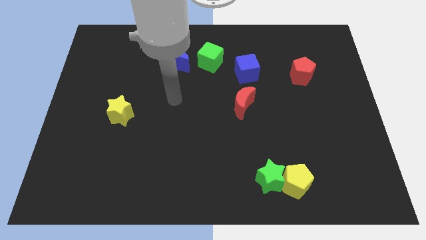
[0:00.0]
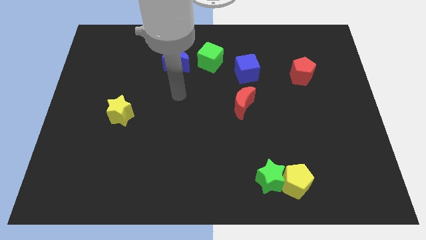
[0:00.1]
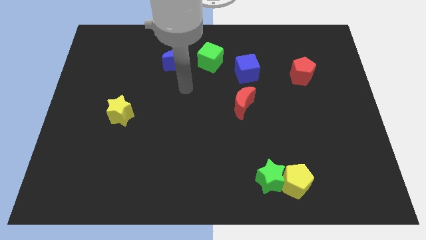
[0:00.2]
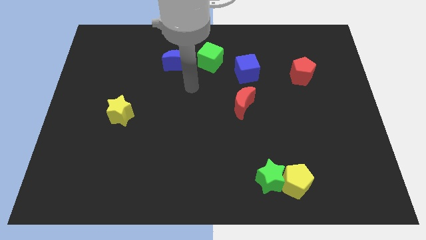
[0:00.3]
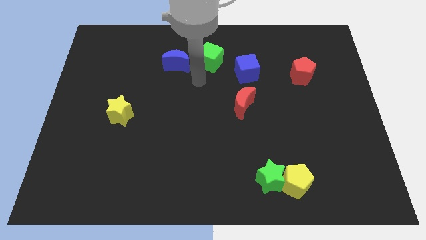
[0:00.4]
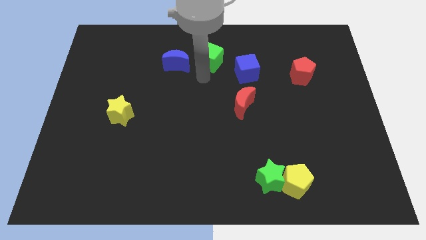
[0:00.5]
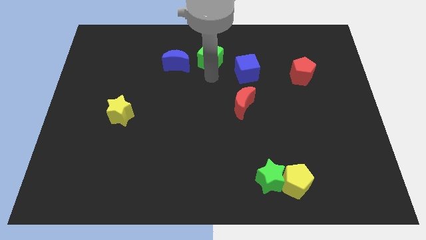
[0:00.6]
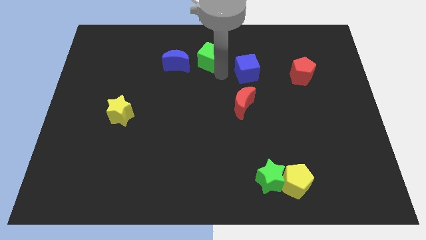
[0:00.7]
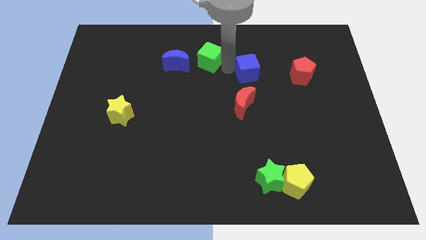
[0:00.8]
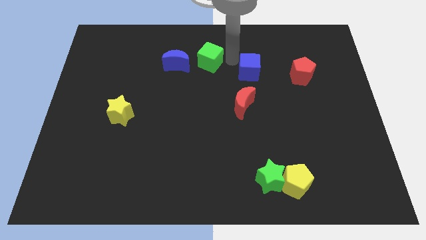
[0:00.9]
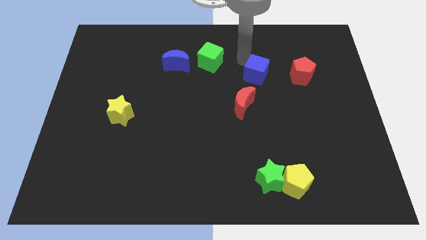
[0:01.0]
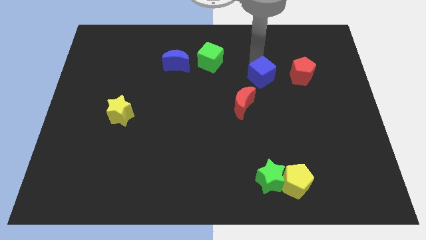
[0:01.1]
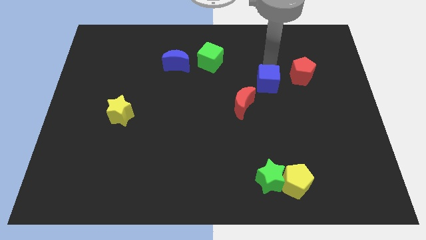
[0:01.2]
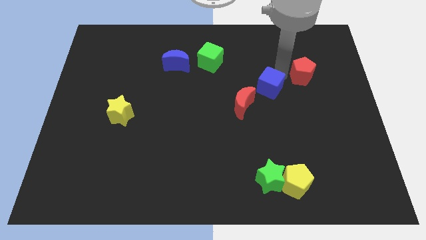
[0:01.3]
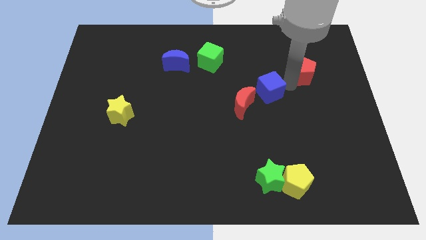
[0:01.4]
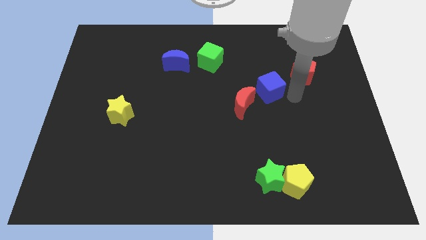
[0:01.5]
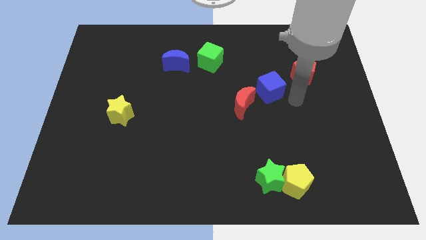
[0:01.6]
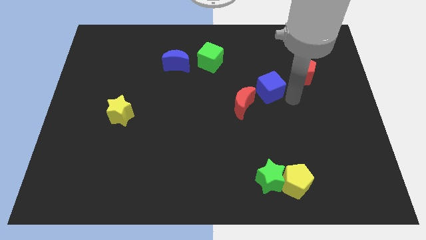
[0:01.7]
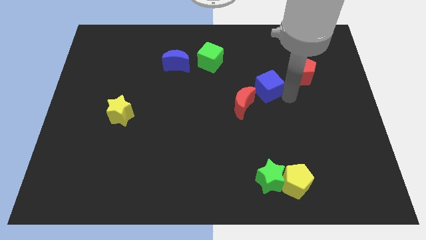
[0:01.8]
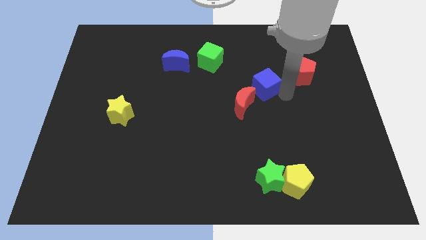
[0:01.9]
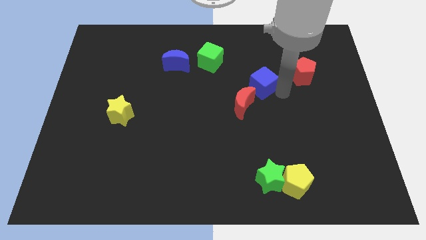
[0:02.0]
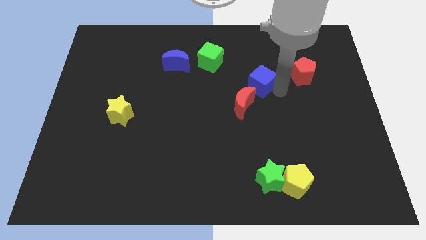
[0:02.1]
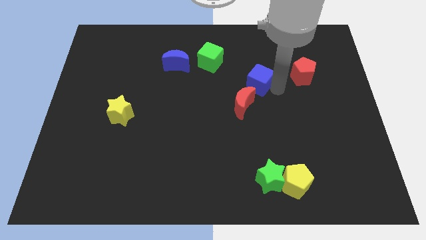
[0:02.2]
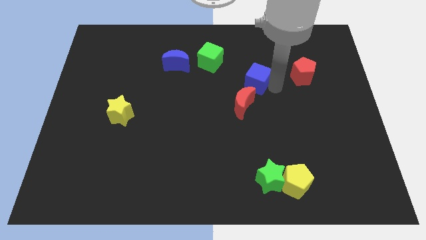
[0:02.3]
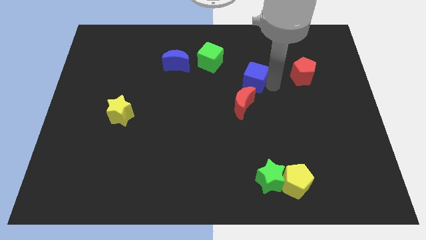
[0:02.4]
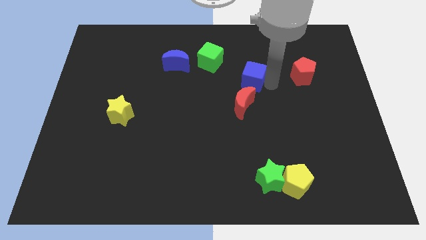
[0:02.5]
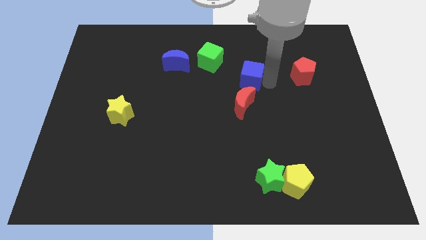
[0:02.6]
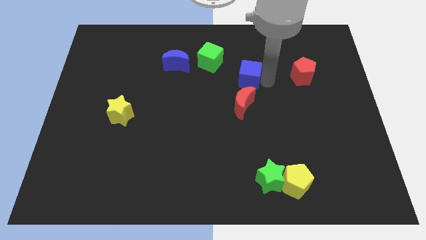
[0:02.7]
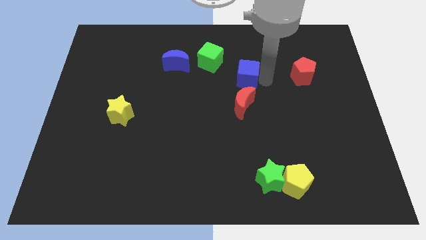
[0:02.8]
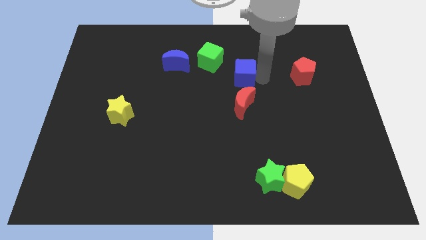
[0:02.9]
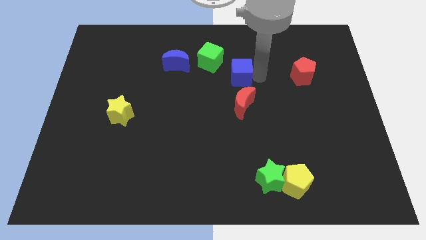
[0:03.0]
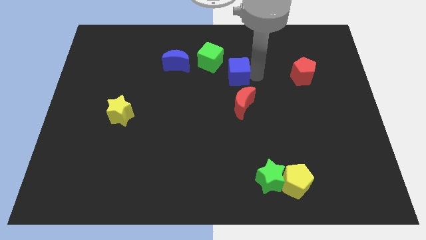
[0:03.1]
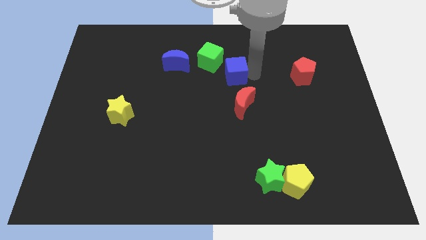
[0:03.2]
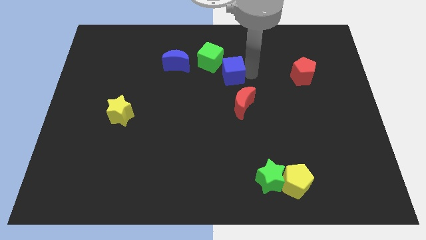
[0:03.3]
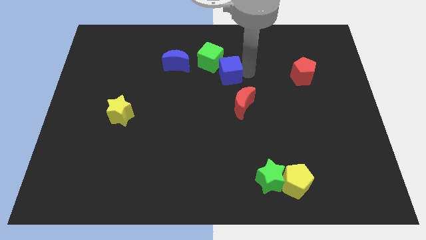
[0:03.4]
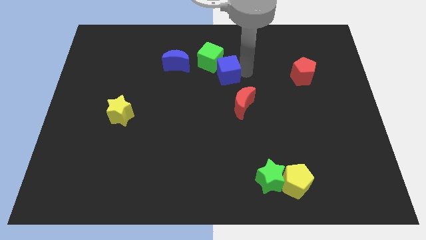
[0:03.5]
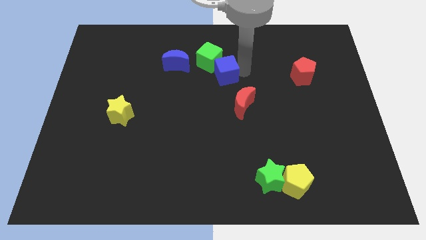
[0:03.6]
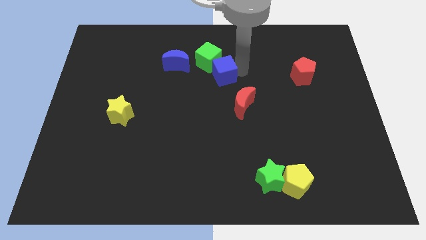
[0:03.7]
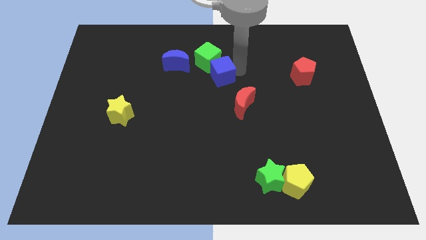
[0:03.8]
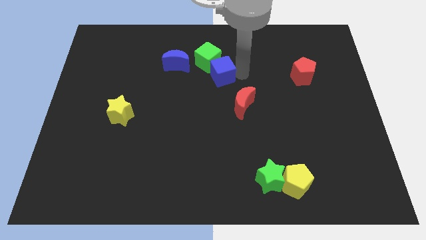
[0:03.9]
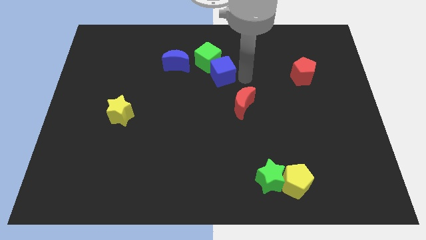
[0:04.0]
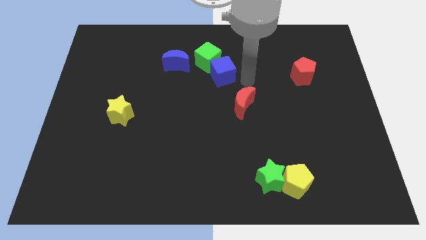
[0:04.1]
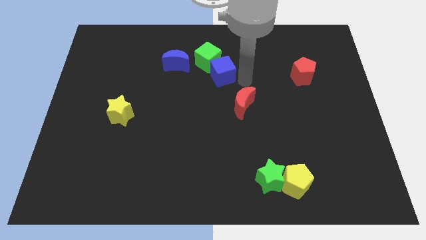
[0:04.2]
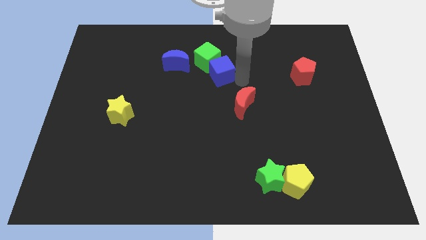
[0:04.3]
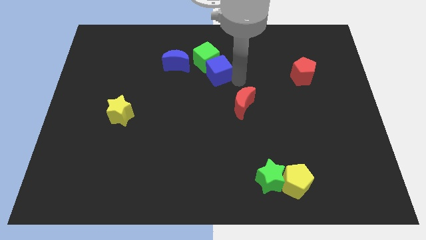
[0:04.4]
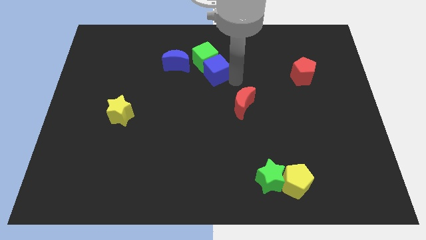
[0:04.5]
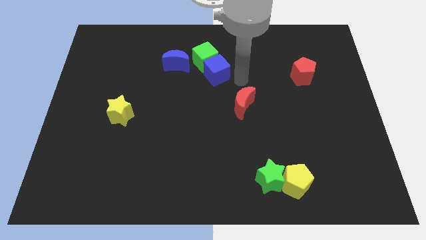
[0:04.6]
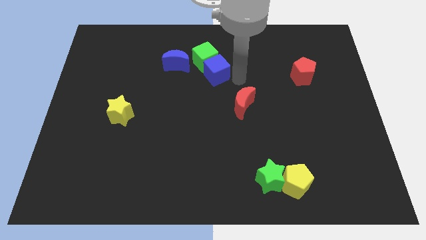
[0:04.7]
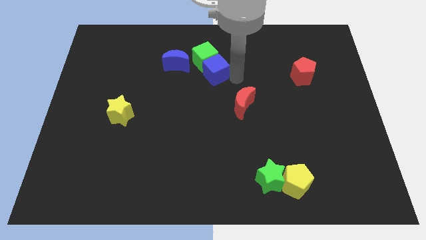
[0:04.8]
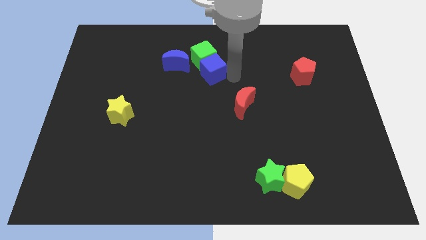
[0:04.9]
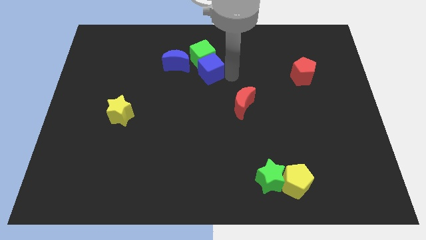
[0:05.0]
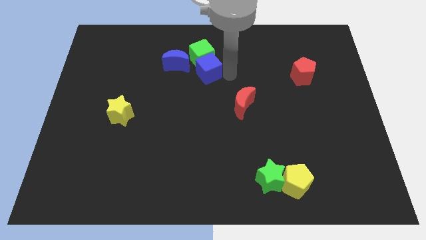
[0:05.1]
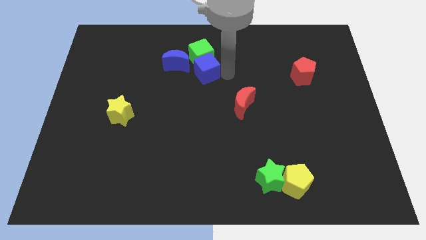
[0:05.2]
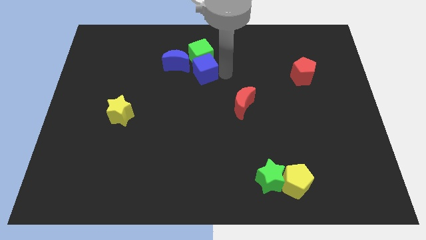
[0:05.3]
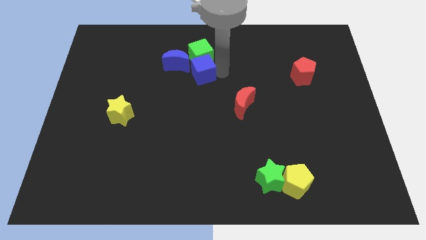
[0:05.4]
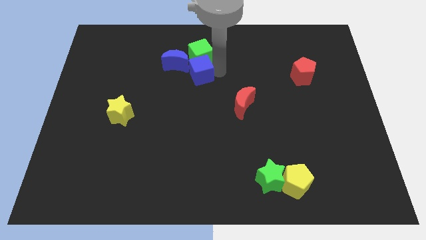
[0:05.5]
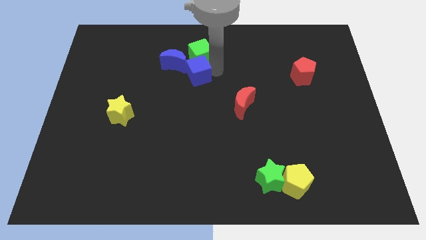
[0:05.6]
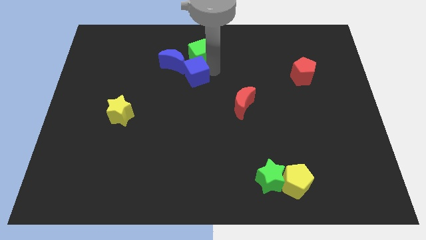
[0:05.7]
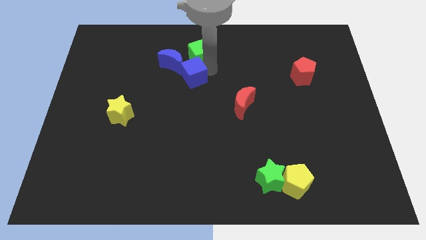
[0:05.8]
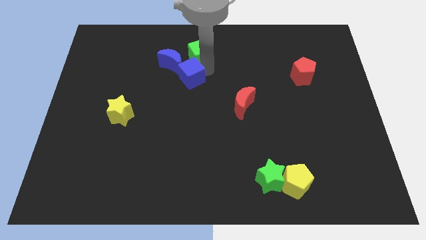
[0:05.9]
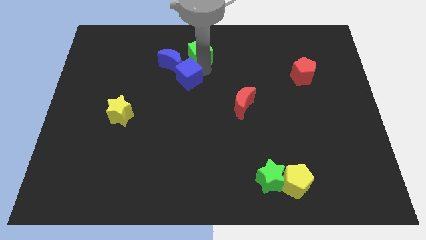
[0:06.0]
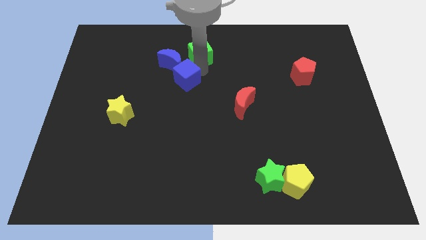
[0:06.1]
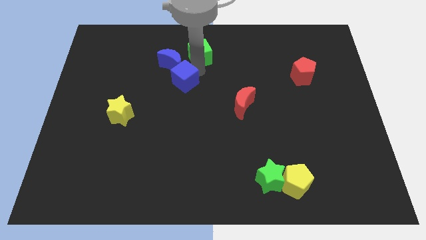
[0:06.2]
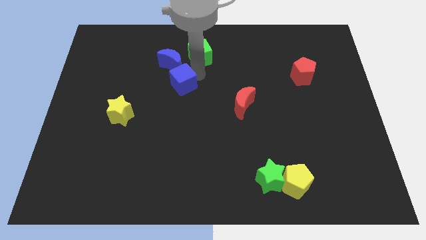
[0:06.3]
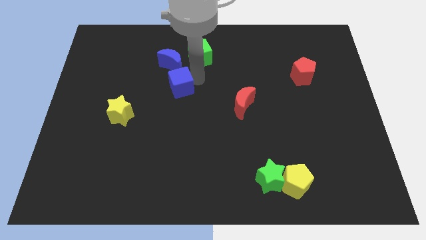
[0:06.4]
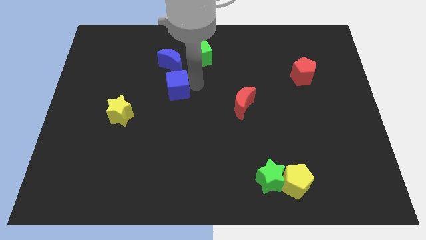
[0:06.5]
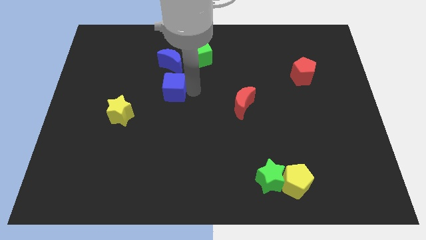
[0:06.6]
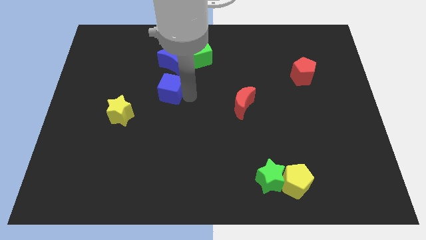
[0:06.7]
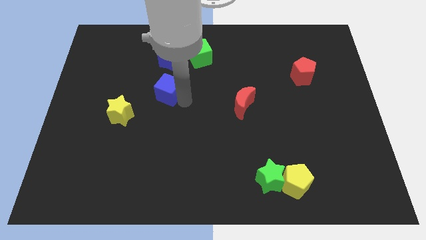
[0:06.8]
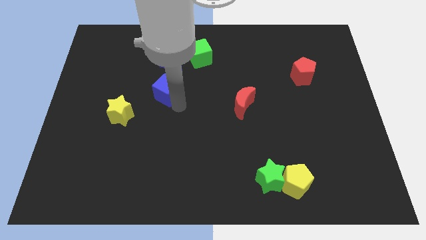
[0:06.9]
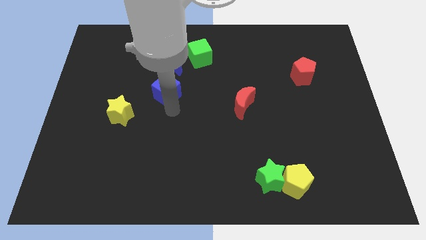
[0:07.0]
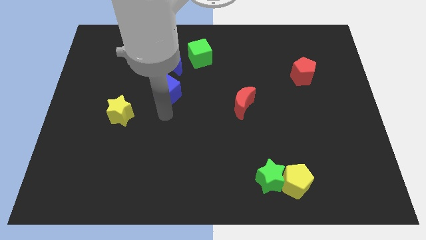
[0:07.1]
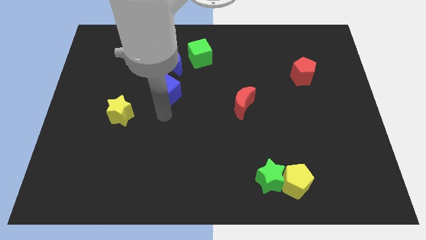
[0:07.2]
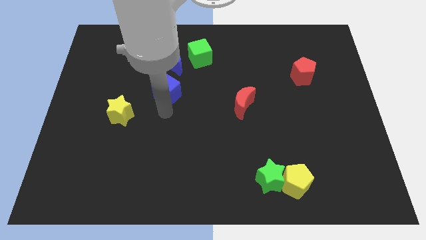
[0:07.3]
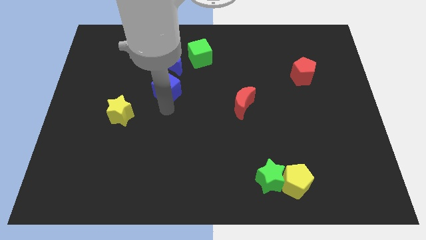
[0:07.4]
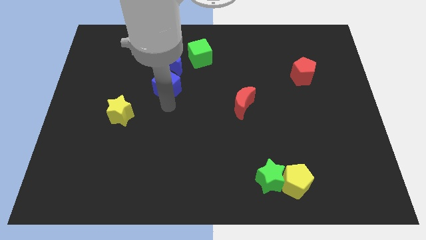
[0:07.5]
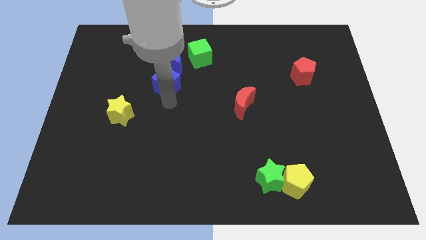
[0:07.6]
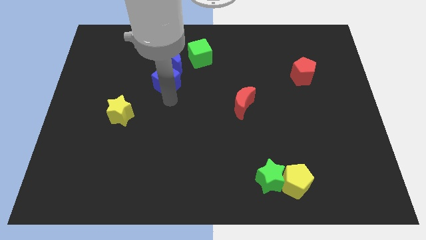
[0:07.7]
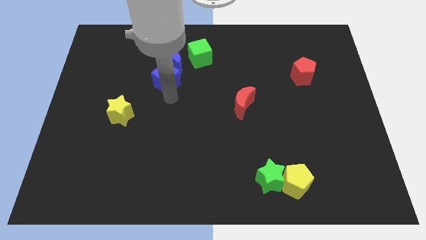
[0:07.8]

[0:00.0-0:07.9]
slide the blue cube towards the blue moon
